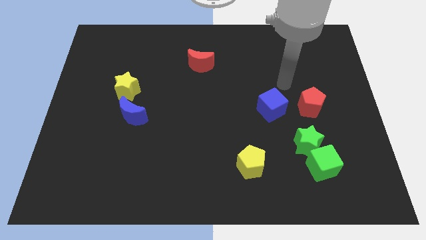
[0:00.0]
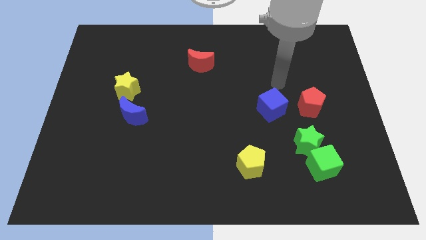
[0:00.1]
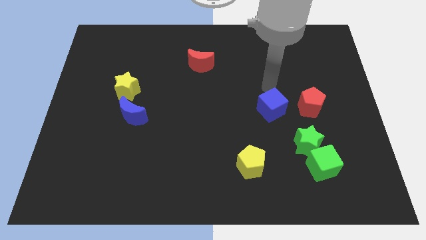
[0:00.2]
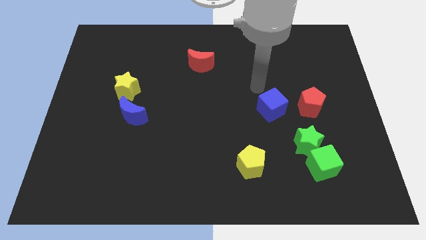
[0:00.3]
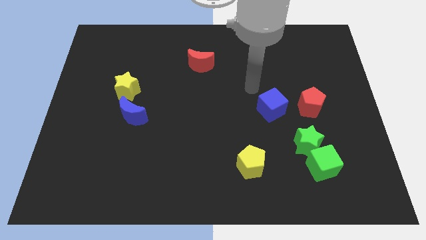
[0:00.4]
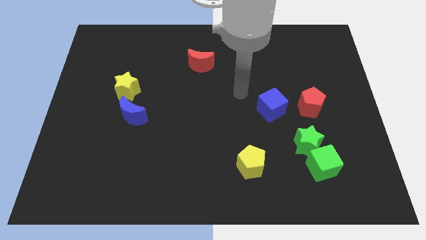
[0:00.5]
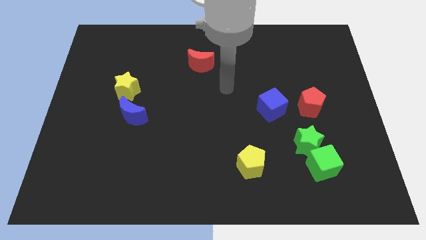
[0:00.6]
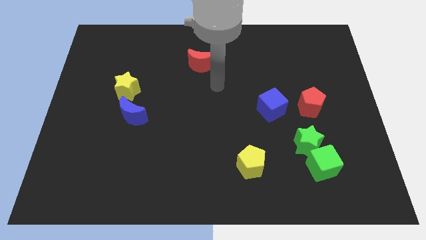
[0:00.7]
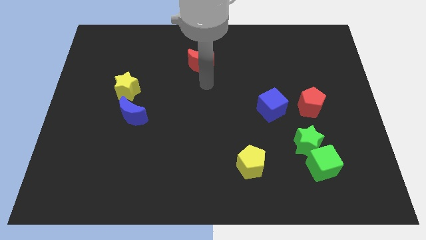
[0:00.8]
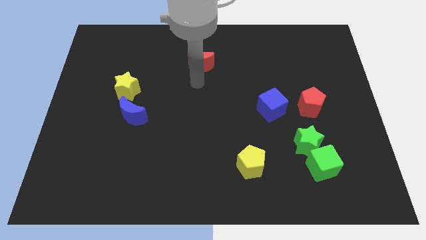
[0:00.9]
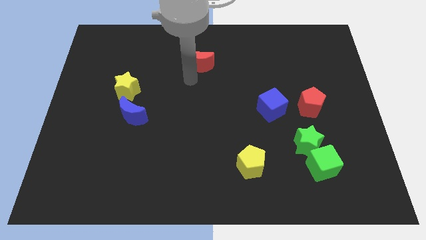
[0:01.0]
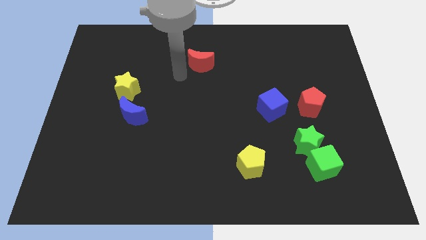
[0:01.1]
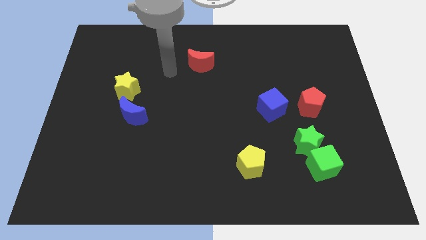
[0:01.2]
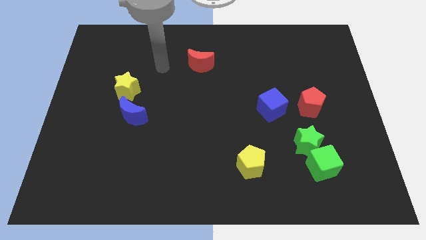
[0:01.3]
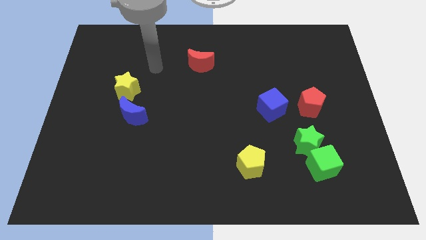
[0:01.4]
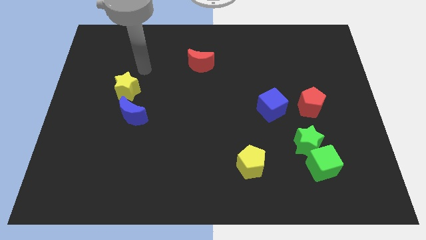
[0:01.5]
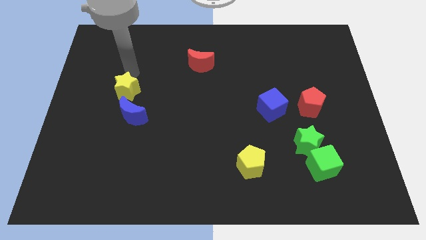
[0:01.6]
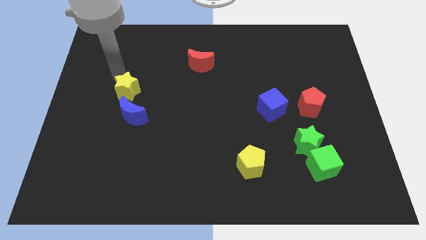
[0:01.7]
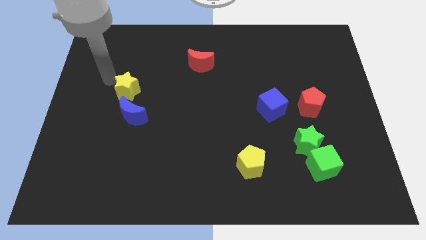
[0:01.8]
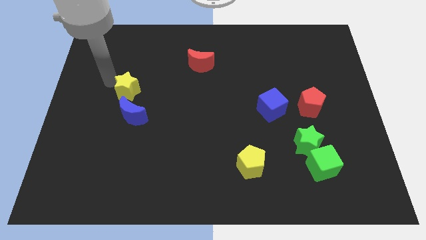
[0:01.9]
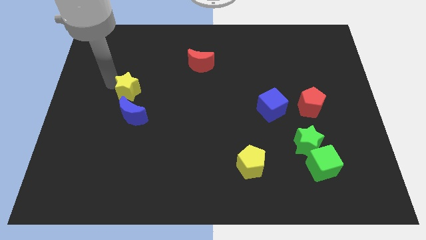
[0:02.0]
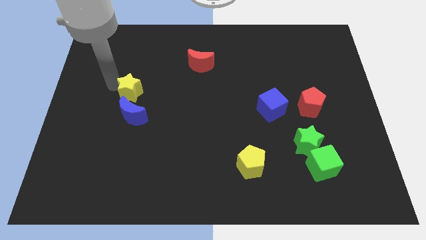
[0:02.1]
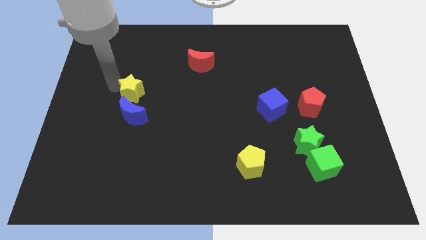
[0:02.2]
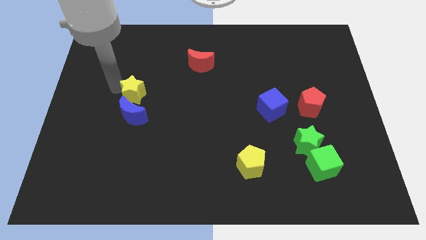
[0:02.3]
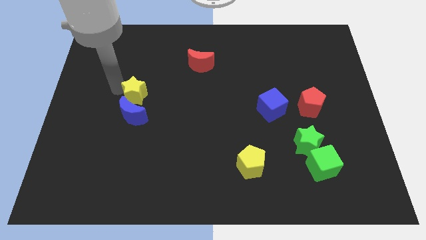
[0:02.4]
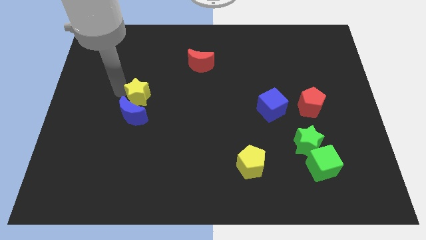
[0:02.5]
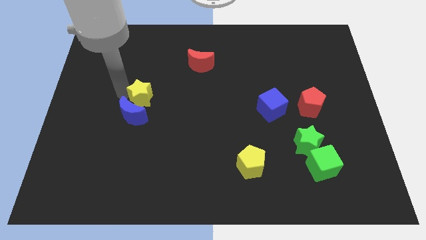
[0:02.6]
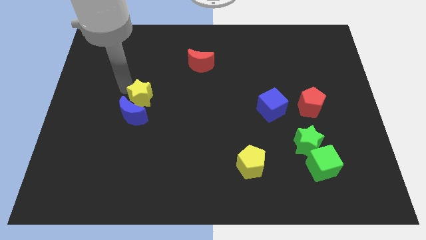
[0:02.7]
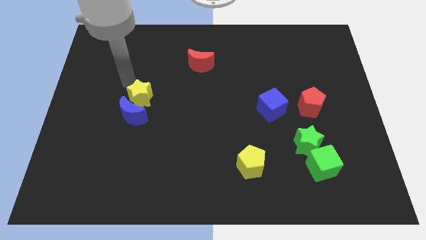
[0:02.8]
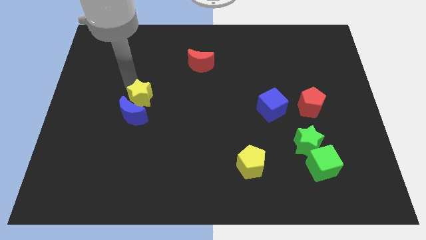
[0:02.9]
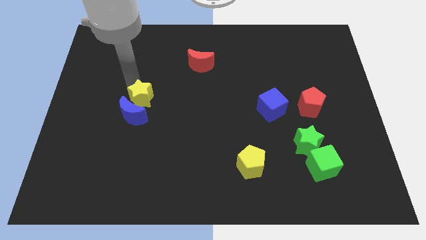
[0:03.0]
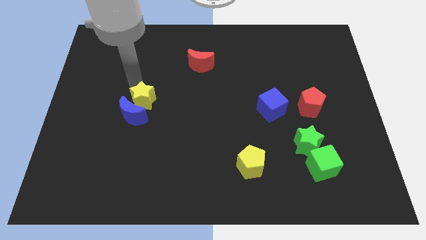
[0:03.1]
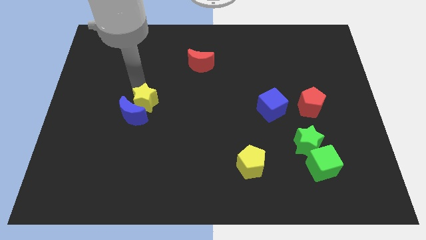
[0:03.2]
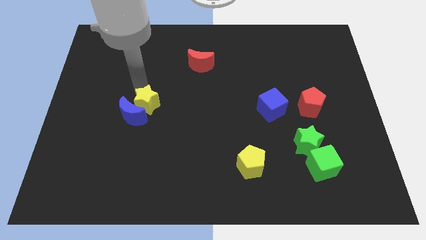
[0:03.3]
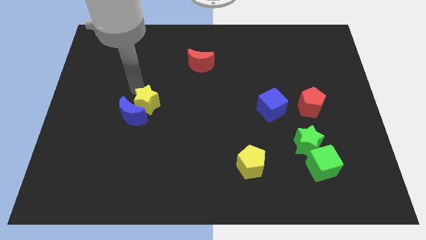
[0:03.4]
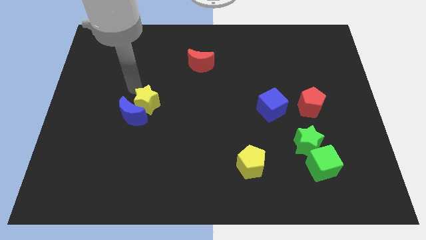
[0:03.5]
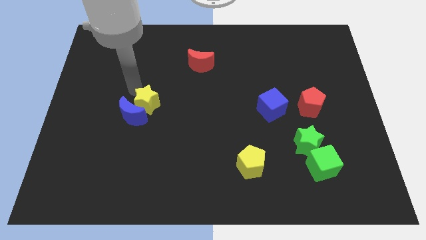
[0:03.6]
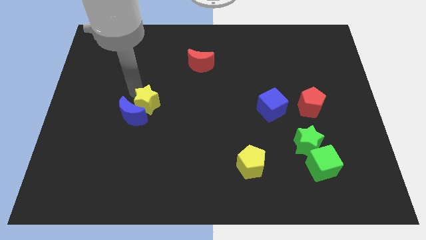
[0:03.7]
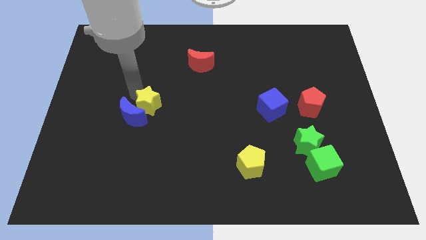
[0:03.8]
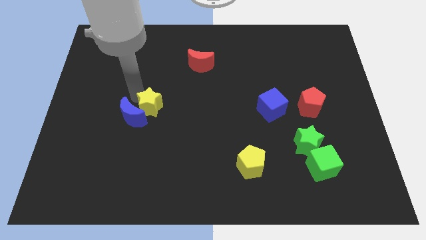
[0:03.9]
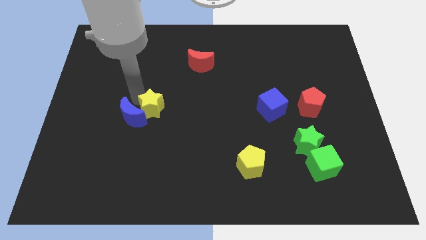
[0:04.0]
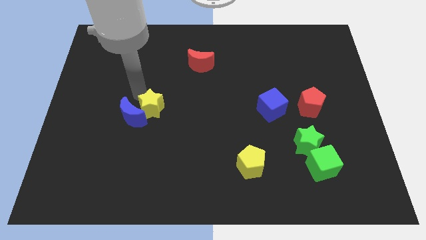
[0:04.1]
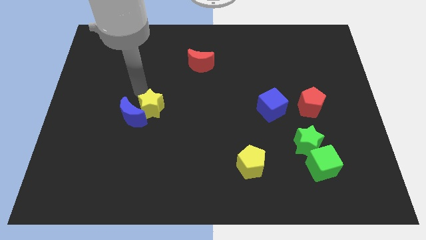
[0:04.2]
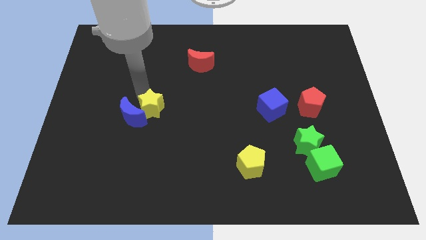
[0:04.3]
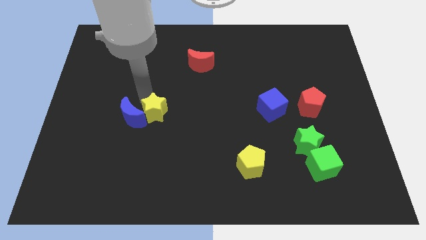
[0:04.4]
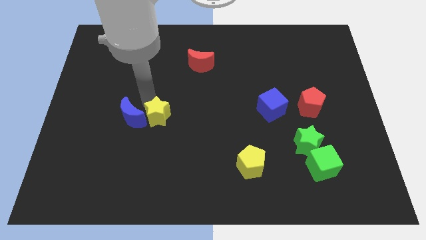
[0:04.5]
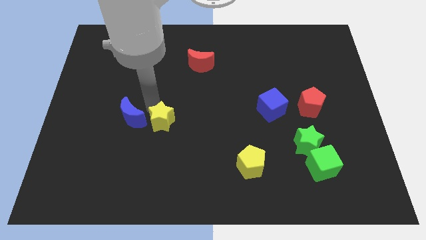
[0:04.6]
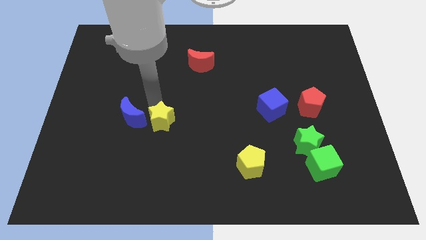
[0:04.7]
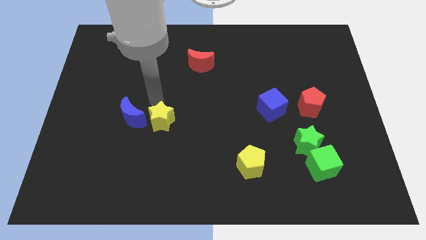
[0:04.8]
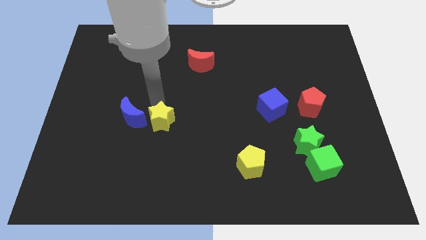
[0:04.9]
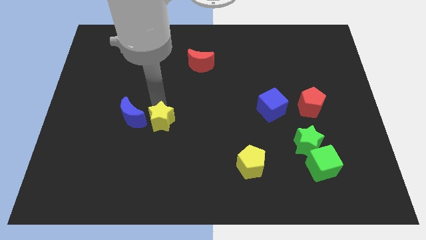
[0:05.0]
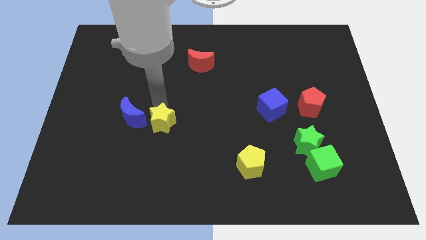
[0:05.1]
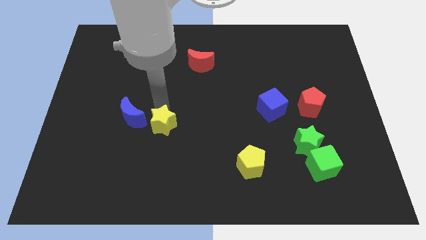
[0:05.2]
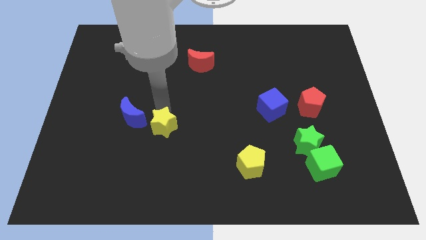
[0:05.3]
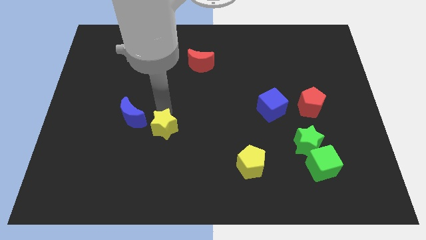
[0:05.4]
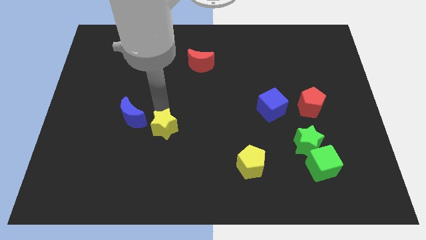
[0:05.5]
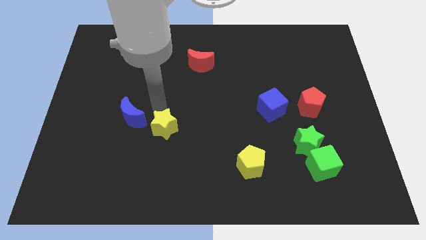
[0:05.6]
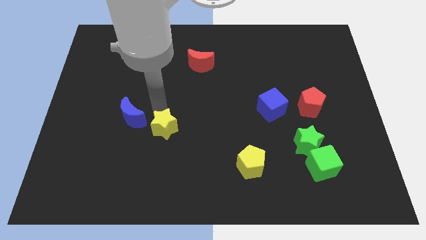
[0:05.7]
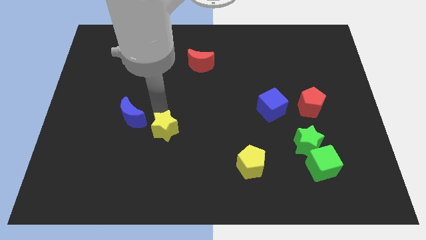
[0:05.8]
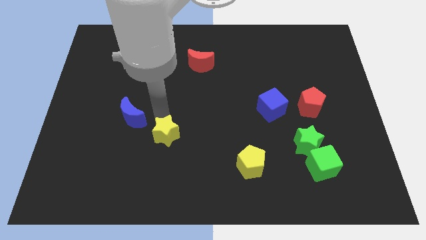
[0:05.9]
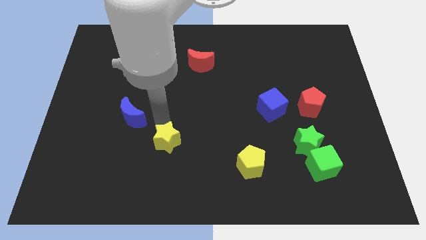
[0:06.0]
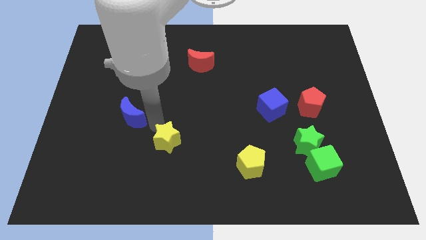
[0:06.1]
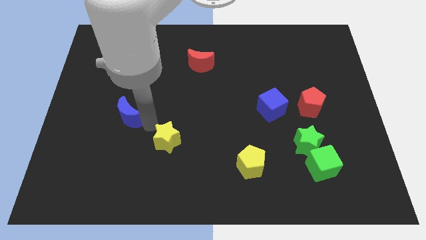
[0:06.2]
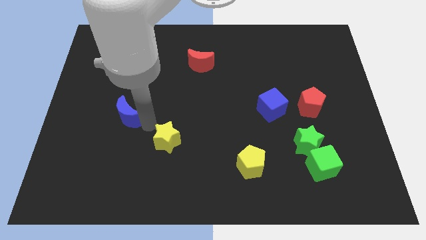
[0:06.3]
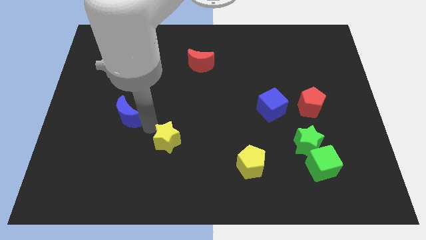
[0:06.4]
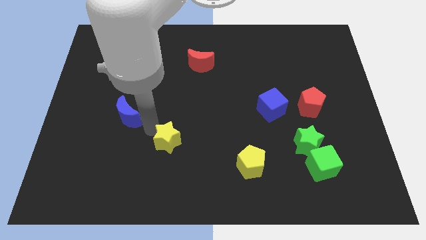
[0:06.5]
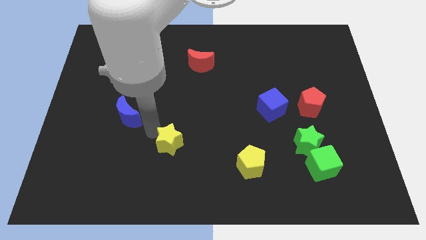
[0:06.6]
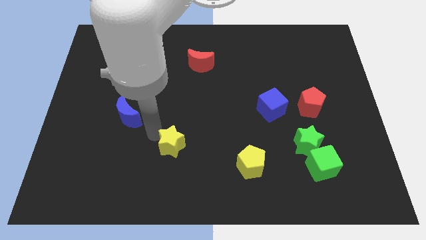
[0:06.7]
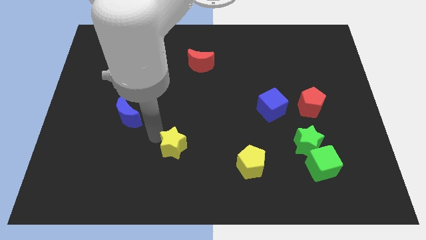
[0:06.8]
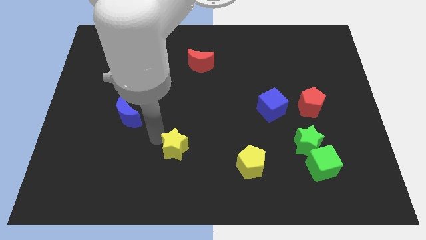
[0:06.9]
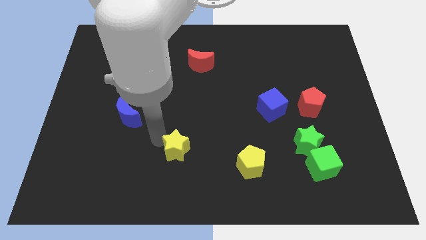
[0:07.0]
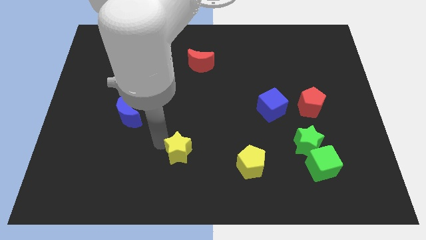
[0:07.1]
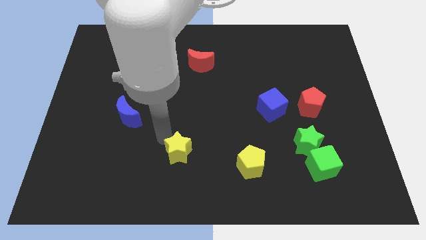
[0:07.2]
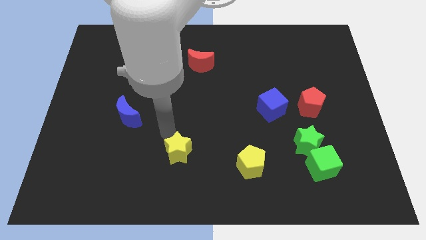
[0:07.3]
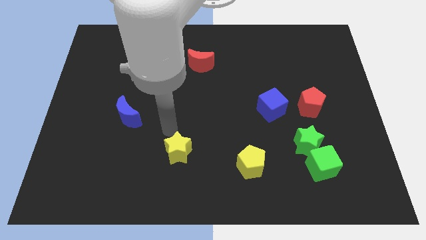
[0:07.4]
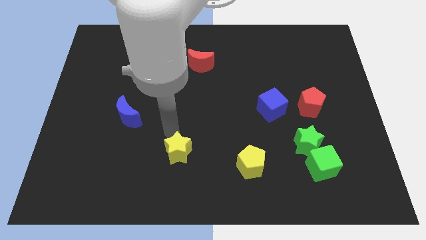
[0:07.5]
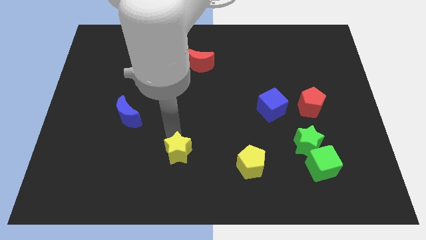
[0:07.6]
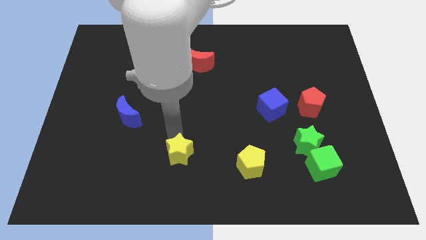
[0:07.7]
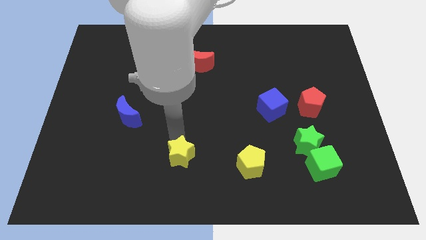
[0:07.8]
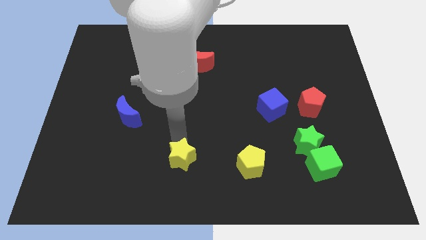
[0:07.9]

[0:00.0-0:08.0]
put the yellow star to the bottom
